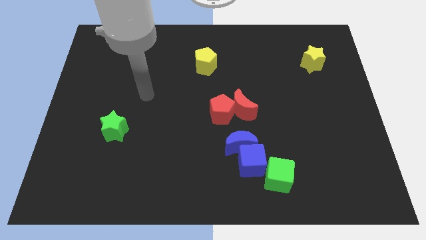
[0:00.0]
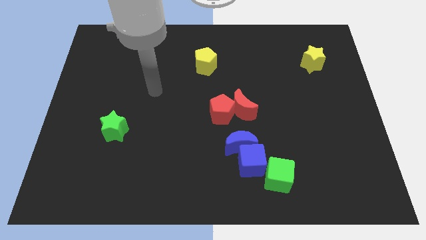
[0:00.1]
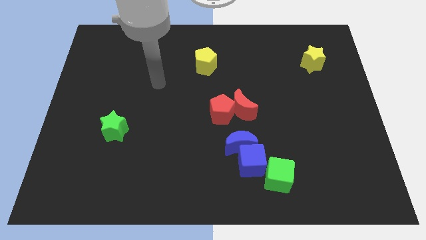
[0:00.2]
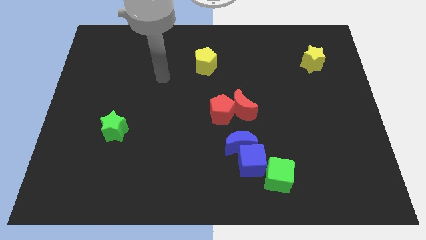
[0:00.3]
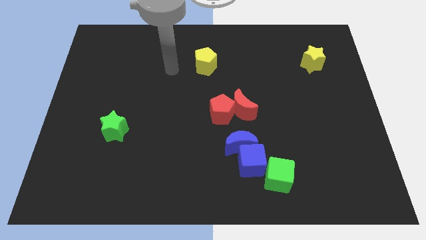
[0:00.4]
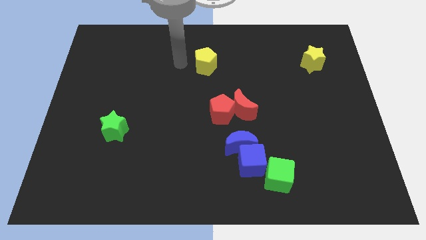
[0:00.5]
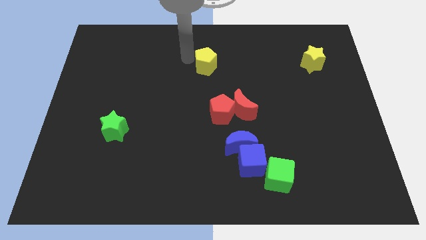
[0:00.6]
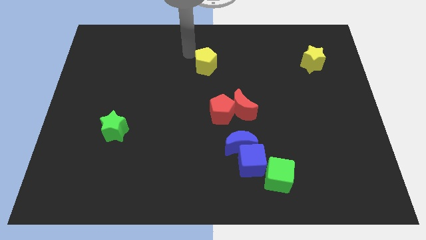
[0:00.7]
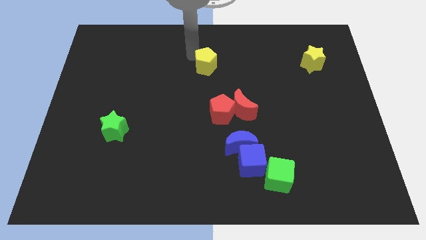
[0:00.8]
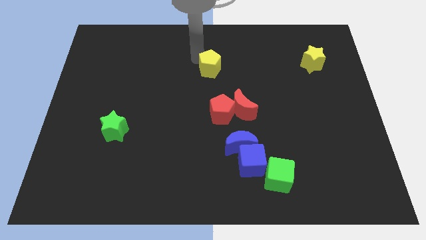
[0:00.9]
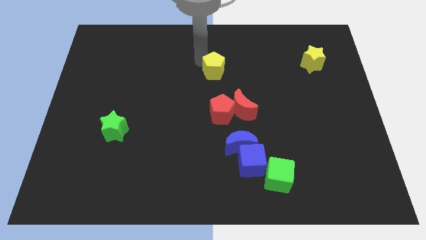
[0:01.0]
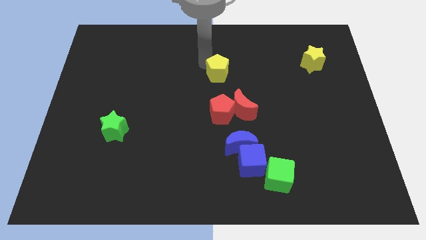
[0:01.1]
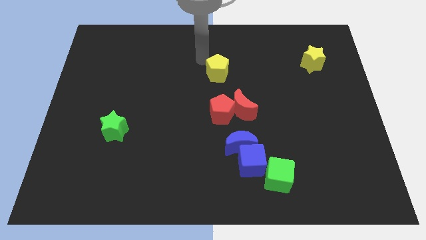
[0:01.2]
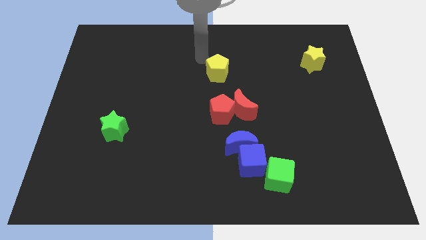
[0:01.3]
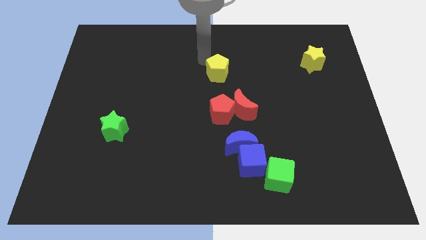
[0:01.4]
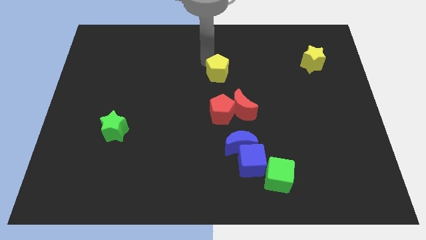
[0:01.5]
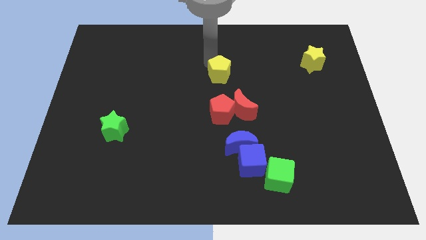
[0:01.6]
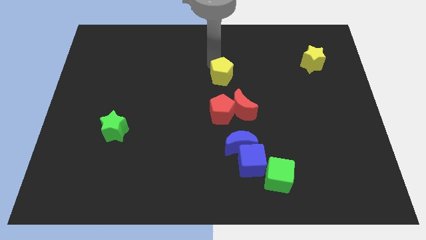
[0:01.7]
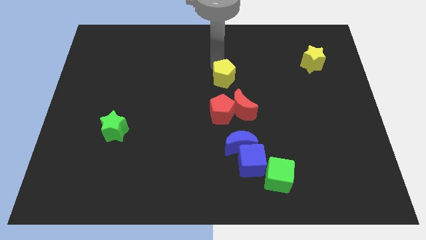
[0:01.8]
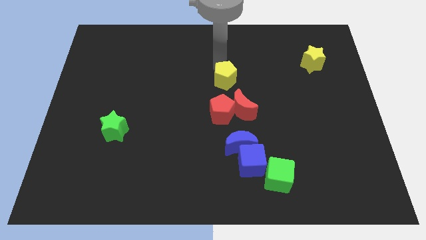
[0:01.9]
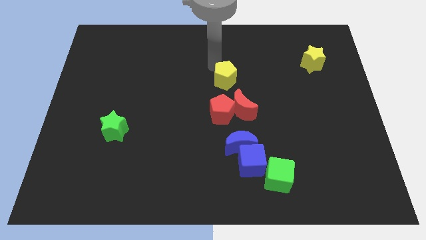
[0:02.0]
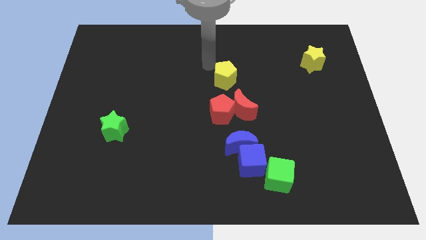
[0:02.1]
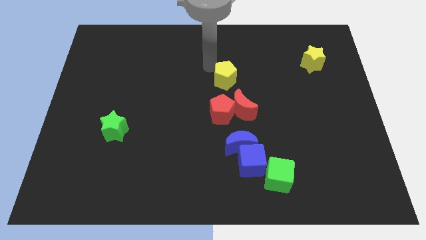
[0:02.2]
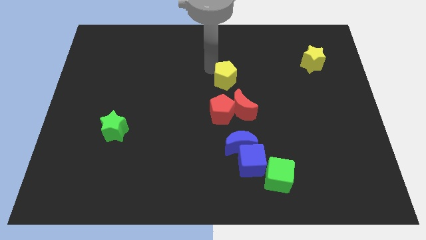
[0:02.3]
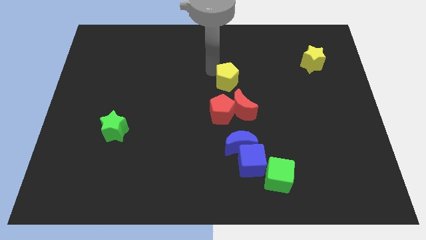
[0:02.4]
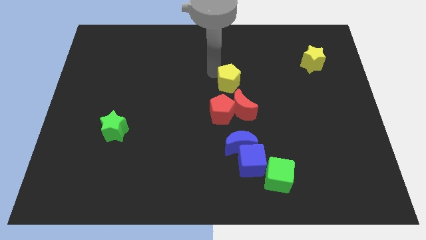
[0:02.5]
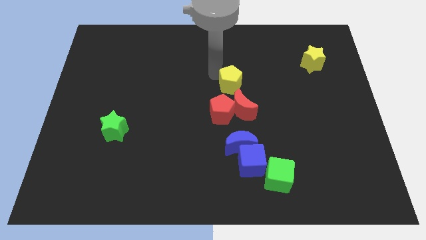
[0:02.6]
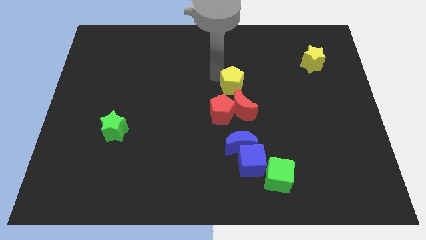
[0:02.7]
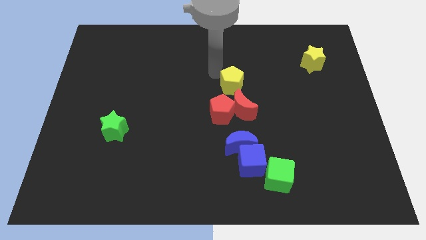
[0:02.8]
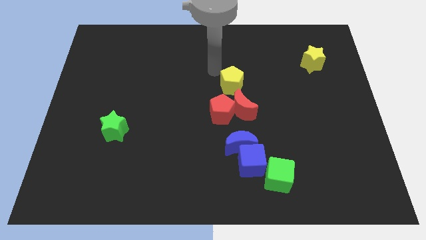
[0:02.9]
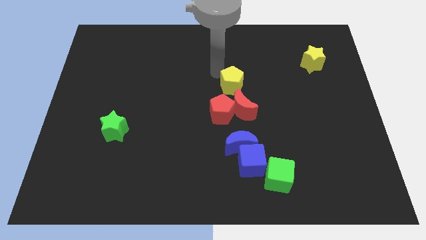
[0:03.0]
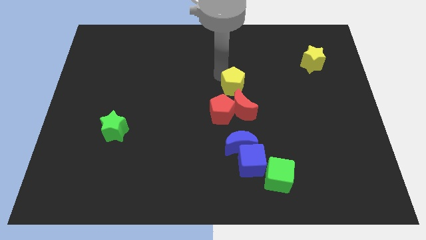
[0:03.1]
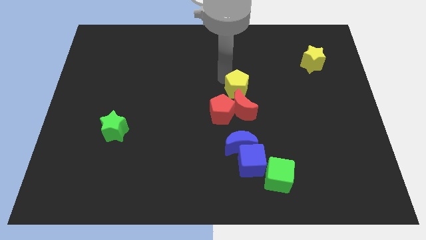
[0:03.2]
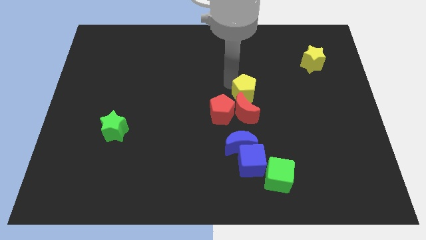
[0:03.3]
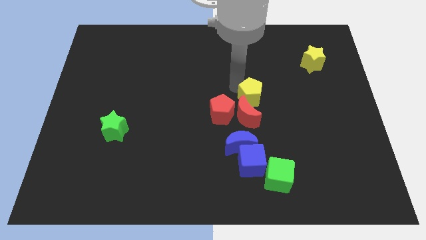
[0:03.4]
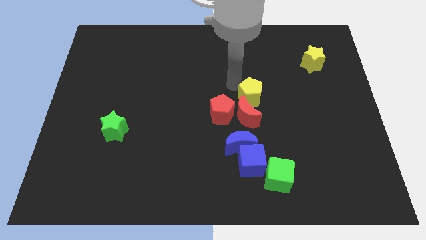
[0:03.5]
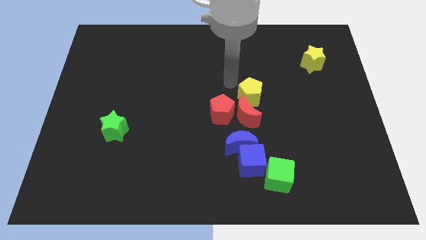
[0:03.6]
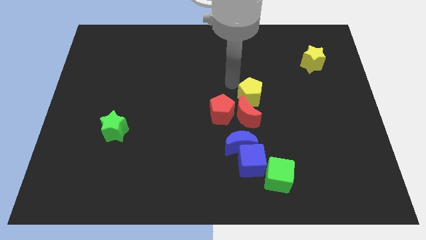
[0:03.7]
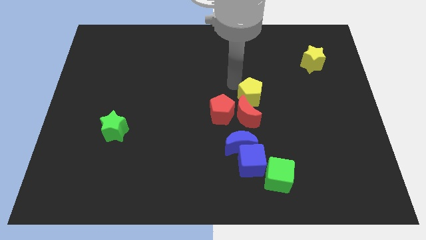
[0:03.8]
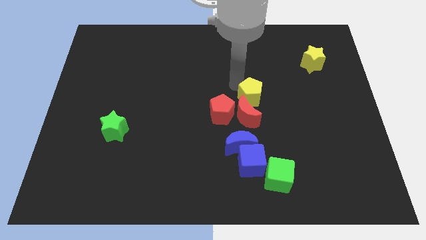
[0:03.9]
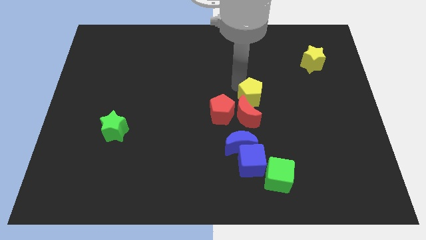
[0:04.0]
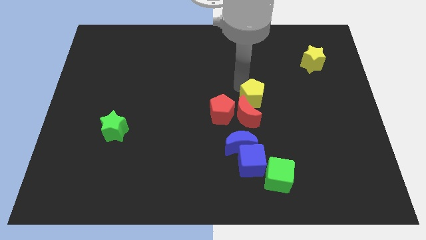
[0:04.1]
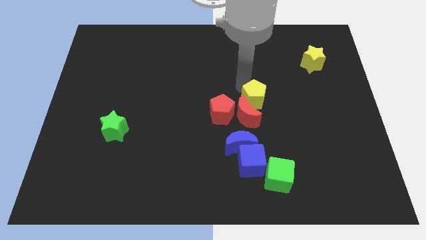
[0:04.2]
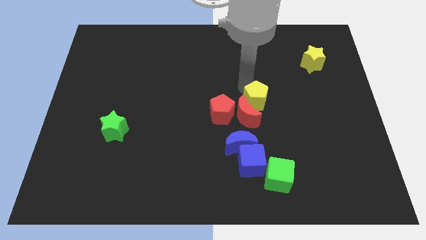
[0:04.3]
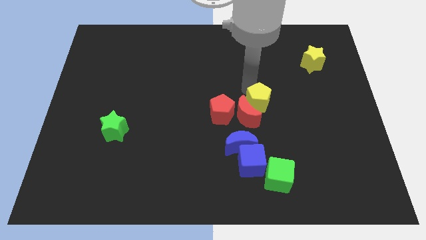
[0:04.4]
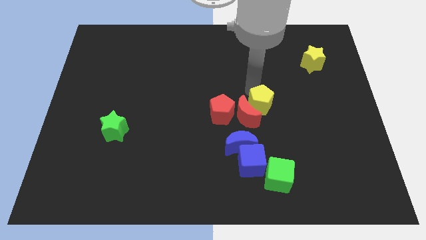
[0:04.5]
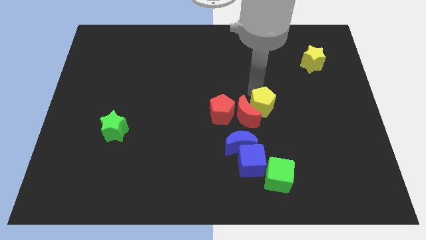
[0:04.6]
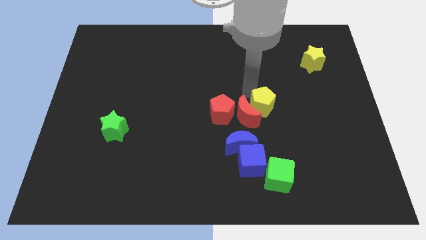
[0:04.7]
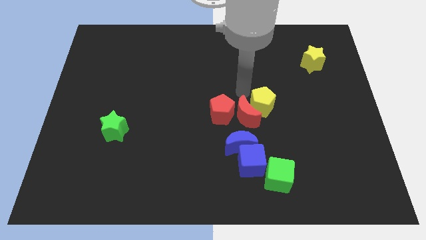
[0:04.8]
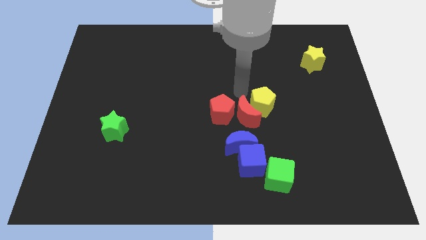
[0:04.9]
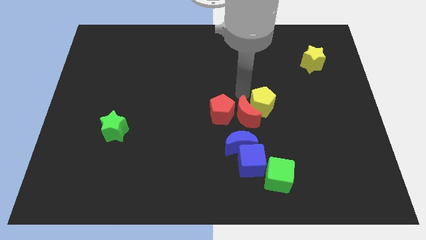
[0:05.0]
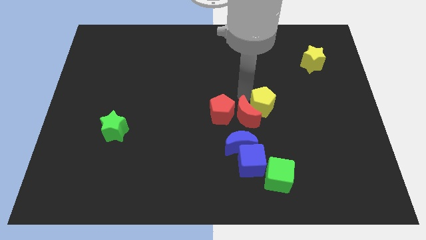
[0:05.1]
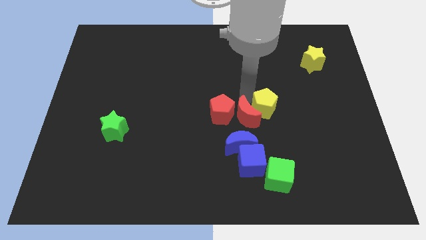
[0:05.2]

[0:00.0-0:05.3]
slide the yellow pentagon diagonally downwards and to the right

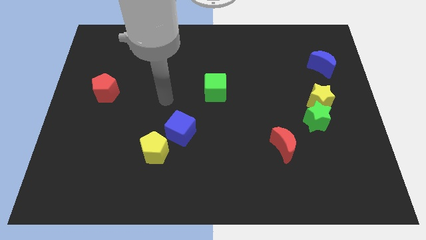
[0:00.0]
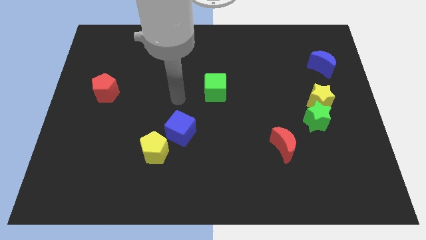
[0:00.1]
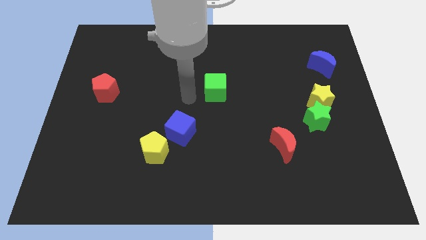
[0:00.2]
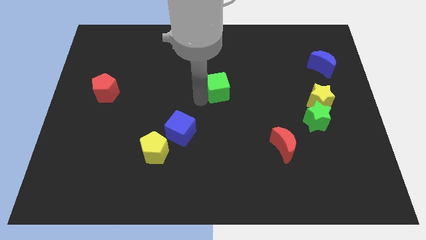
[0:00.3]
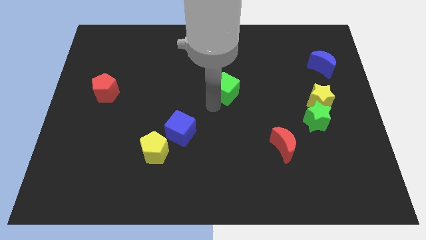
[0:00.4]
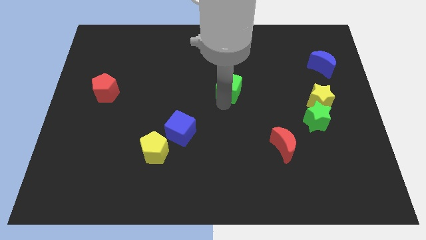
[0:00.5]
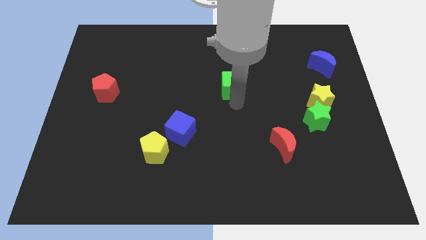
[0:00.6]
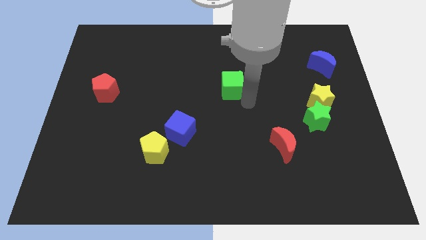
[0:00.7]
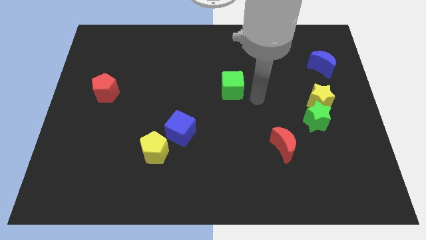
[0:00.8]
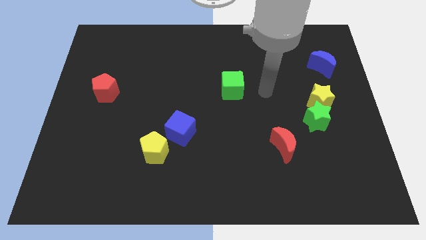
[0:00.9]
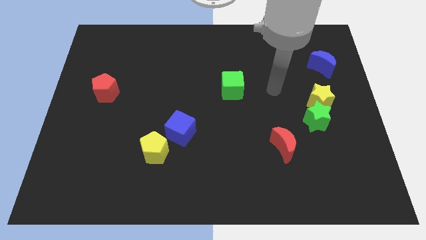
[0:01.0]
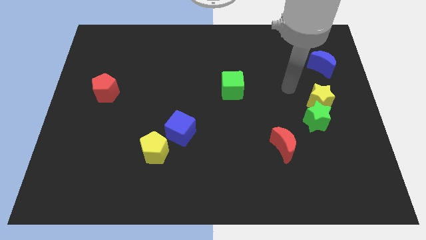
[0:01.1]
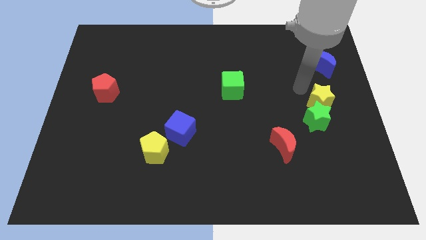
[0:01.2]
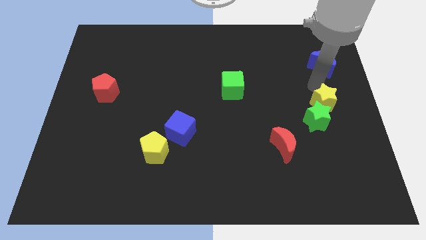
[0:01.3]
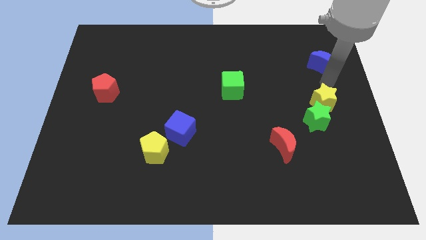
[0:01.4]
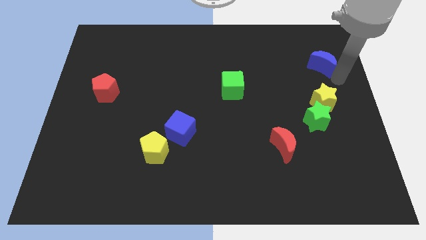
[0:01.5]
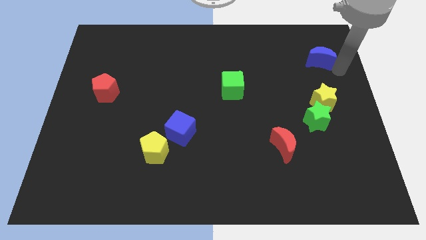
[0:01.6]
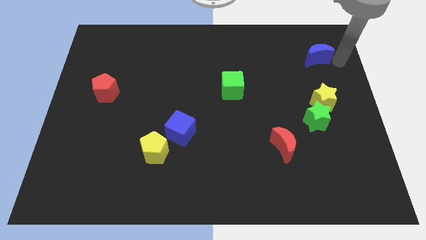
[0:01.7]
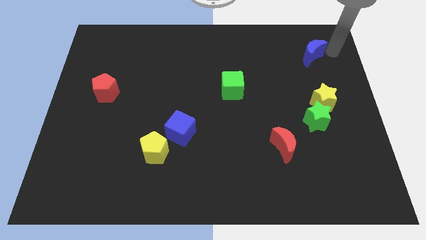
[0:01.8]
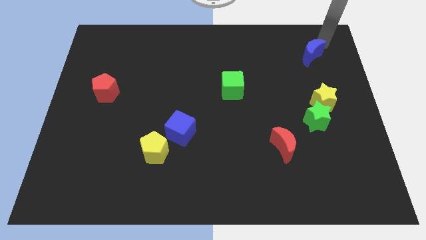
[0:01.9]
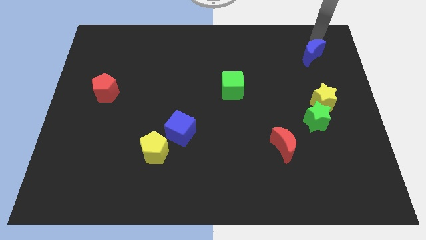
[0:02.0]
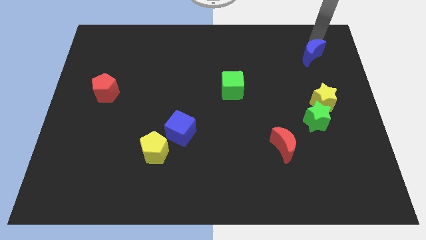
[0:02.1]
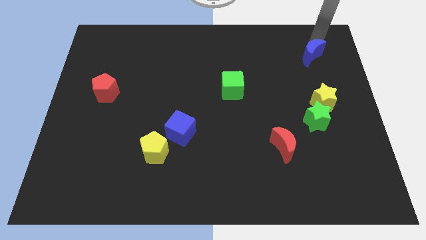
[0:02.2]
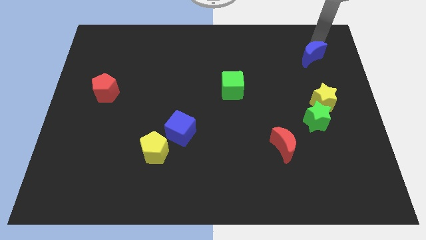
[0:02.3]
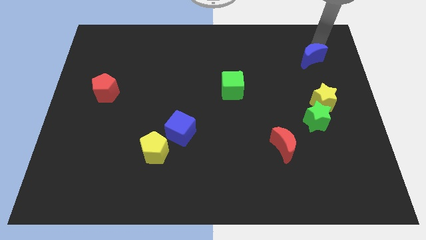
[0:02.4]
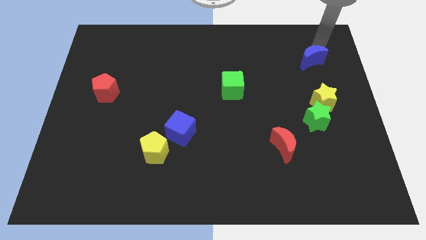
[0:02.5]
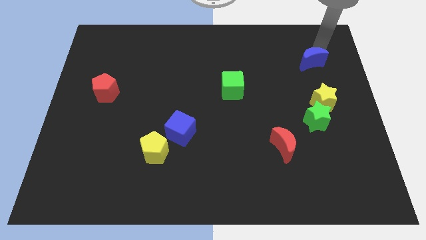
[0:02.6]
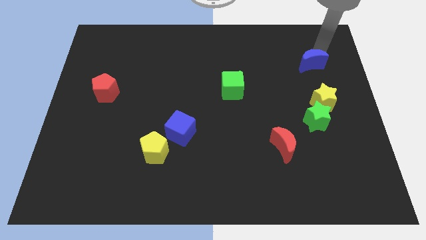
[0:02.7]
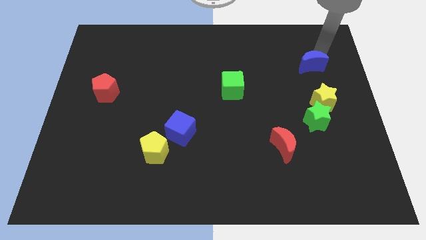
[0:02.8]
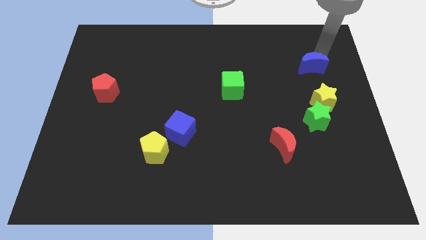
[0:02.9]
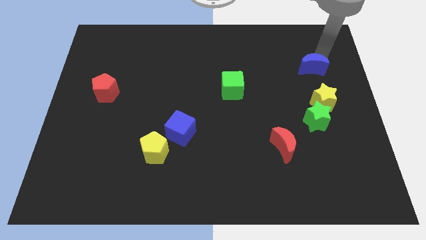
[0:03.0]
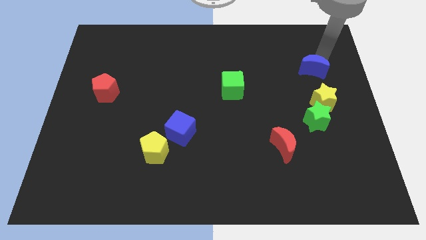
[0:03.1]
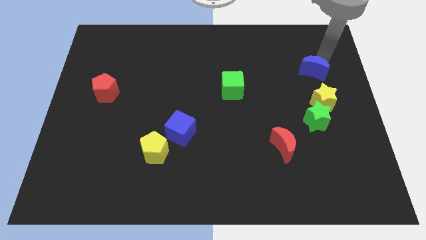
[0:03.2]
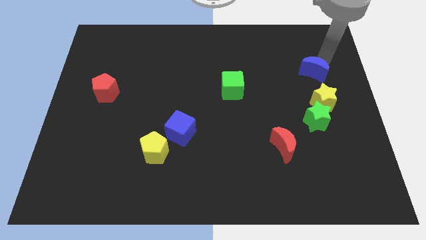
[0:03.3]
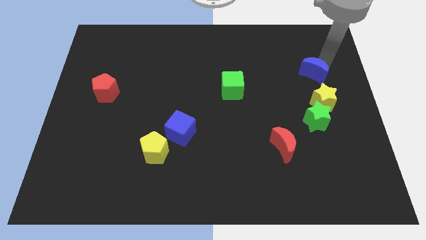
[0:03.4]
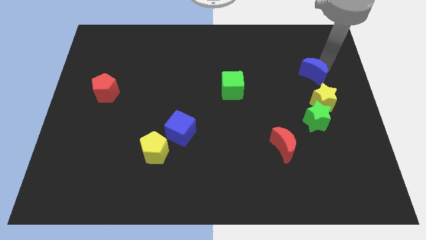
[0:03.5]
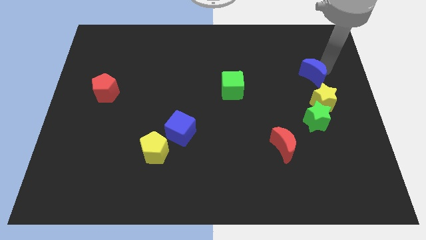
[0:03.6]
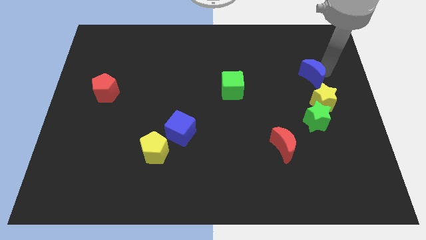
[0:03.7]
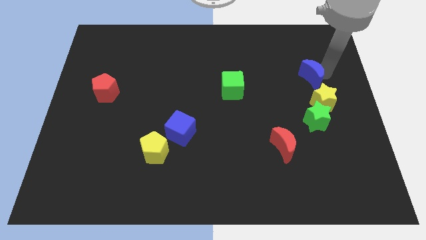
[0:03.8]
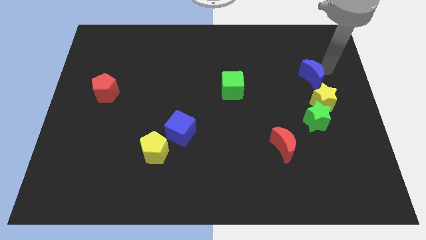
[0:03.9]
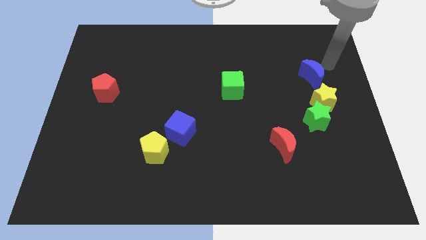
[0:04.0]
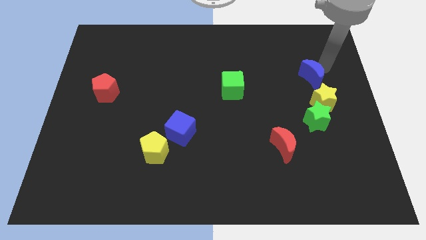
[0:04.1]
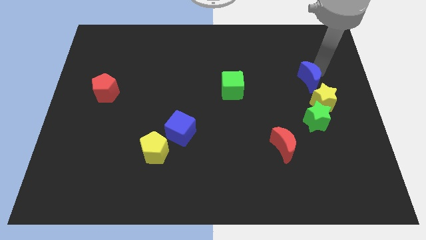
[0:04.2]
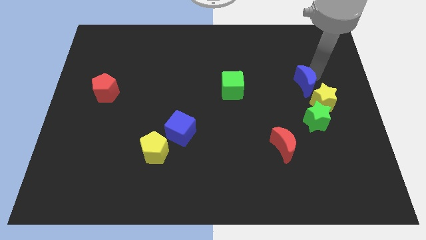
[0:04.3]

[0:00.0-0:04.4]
move the blue moon a little downwards and left
